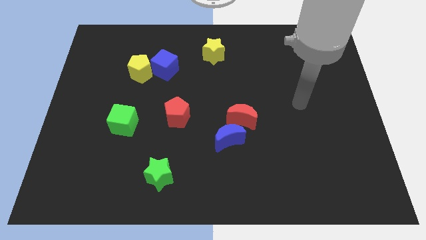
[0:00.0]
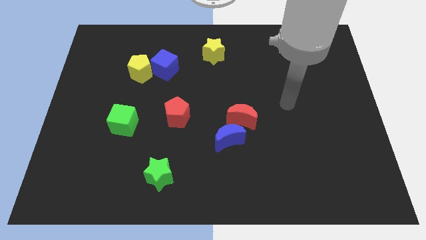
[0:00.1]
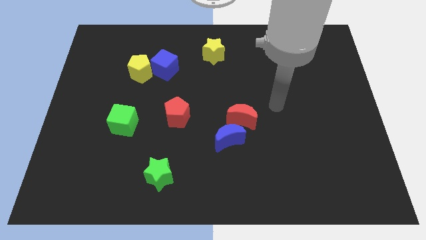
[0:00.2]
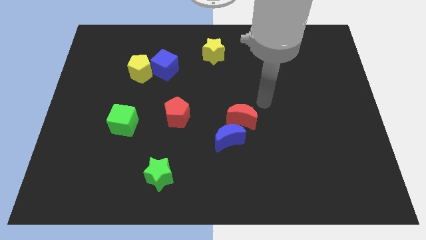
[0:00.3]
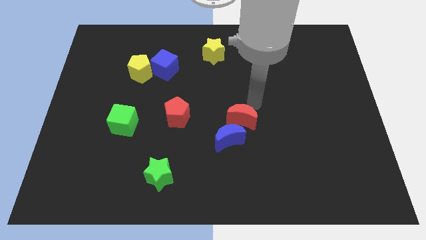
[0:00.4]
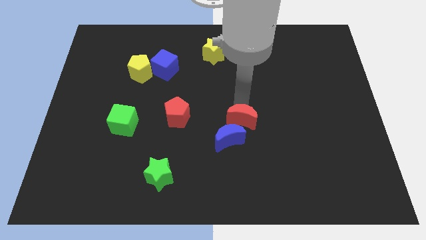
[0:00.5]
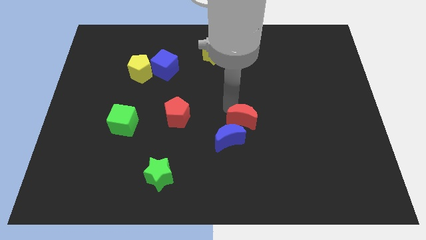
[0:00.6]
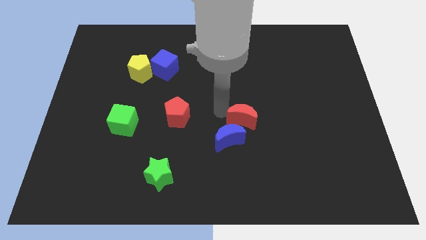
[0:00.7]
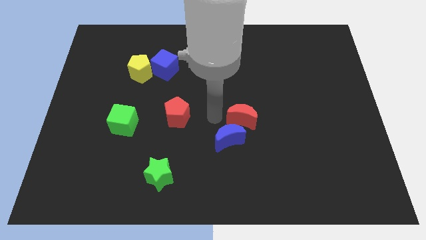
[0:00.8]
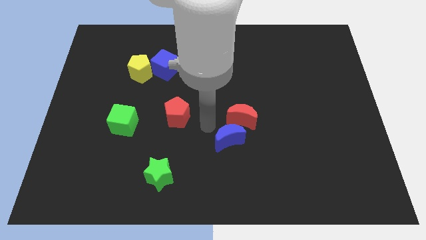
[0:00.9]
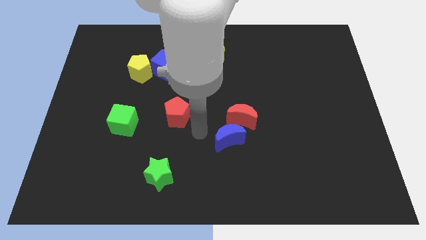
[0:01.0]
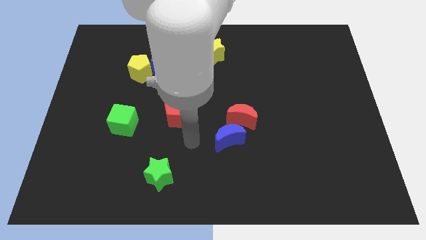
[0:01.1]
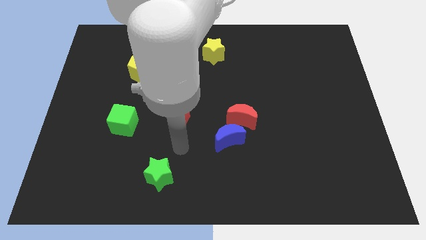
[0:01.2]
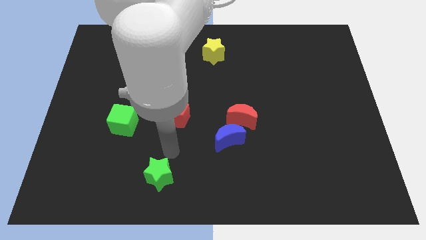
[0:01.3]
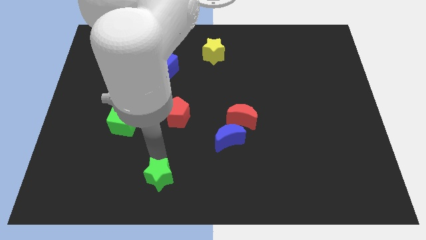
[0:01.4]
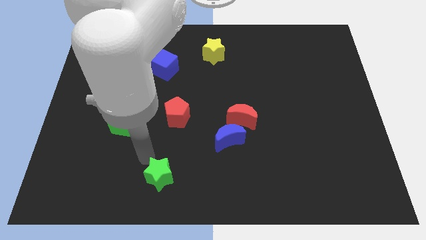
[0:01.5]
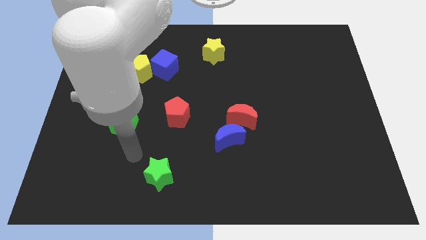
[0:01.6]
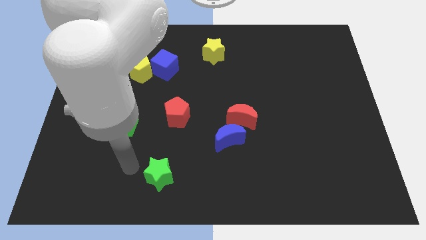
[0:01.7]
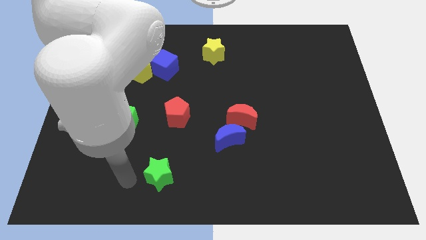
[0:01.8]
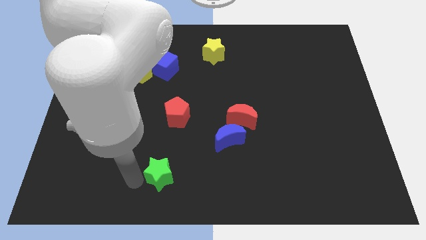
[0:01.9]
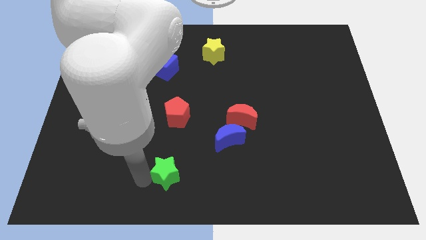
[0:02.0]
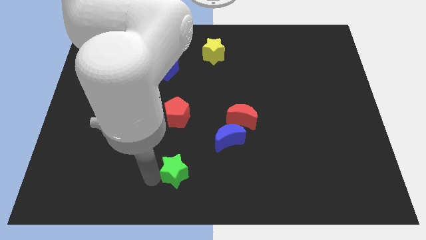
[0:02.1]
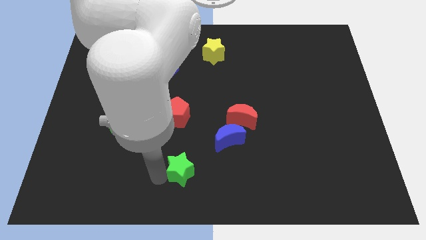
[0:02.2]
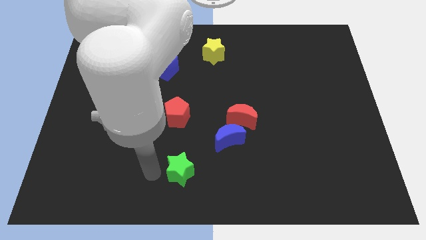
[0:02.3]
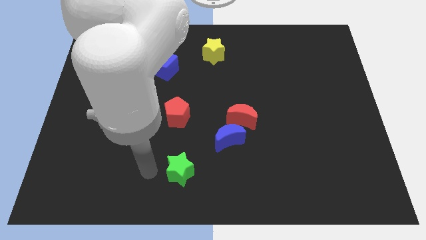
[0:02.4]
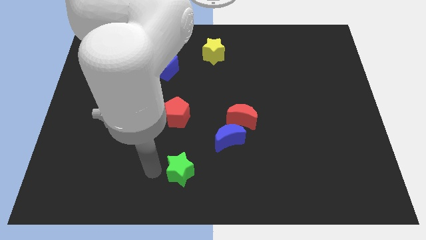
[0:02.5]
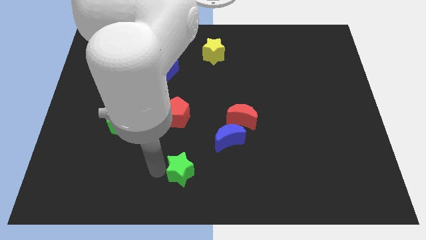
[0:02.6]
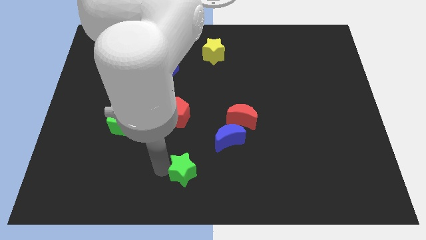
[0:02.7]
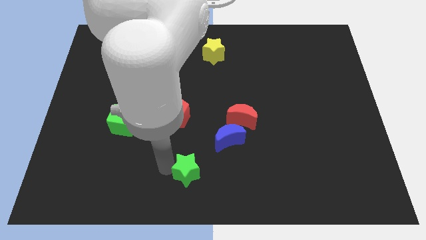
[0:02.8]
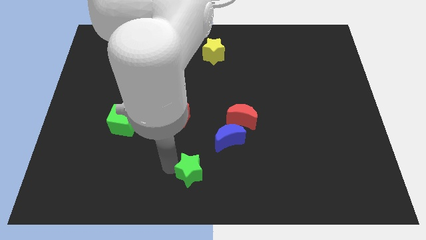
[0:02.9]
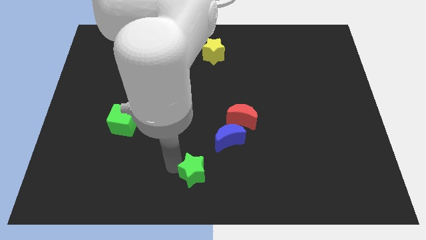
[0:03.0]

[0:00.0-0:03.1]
slightly move the green star right

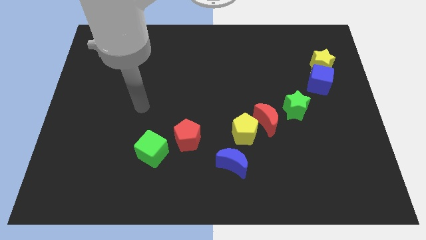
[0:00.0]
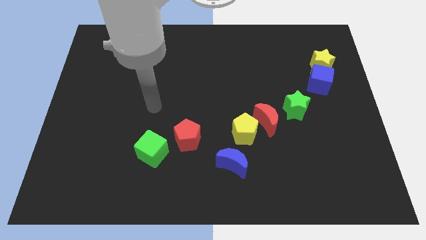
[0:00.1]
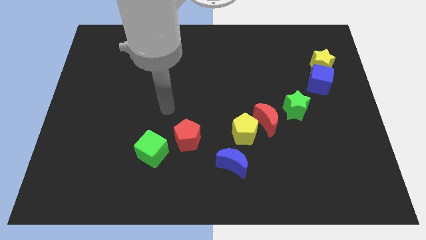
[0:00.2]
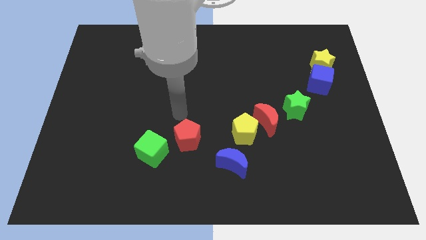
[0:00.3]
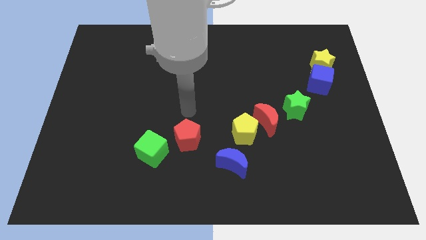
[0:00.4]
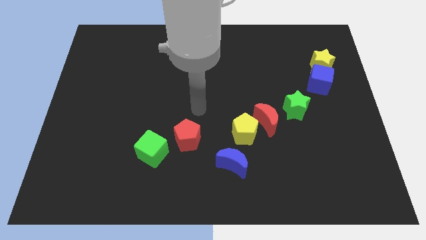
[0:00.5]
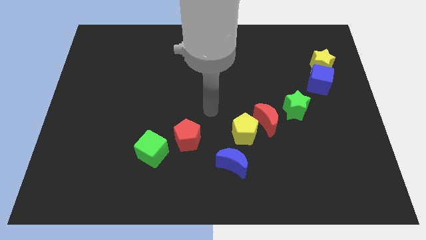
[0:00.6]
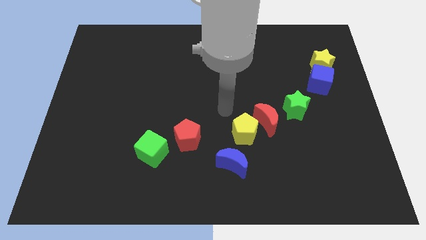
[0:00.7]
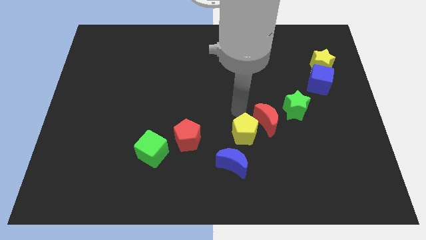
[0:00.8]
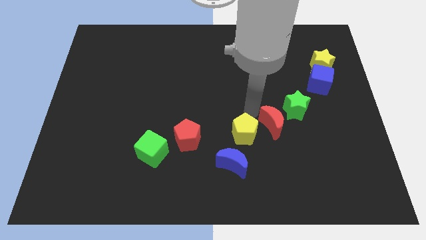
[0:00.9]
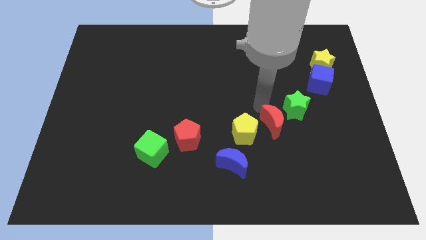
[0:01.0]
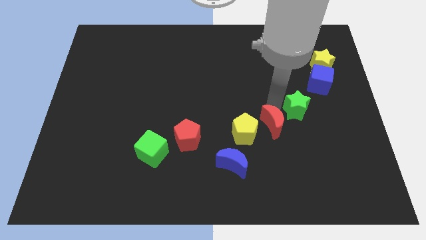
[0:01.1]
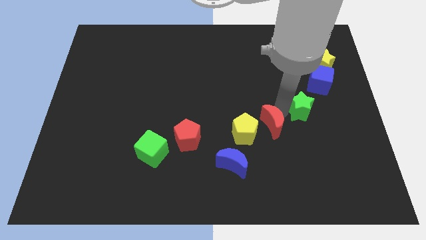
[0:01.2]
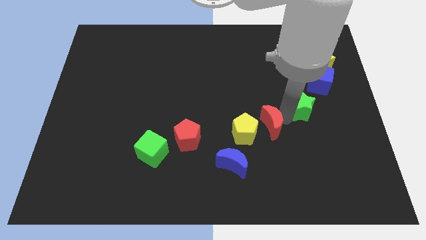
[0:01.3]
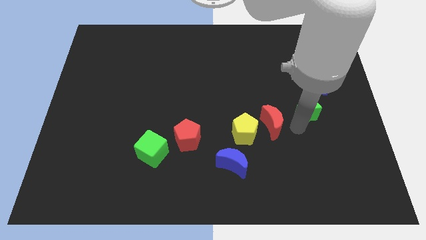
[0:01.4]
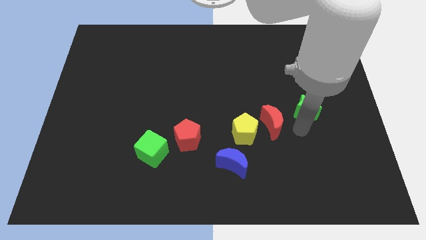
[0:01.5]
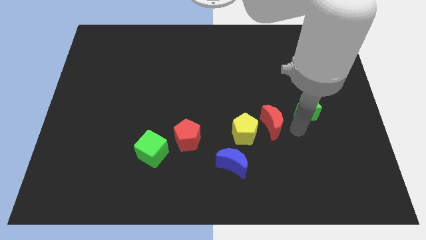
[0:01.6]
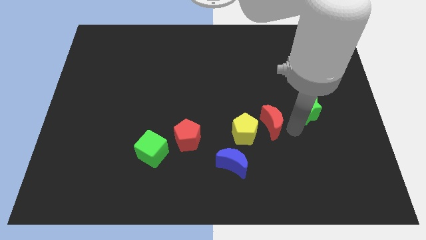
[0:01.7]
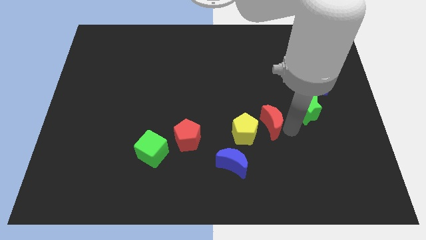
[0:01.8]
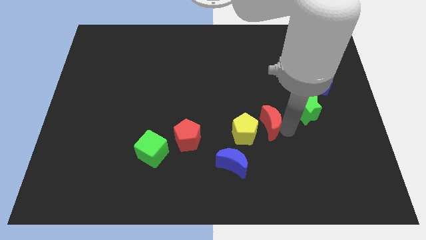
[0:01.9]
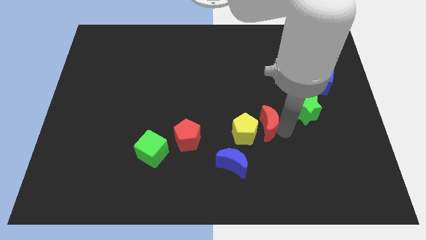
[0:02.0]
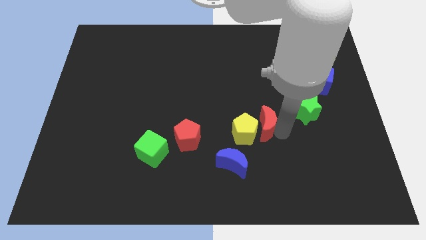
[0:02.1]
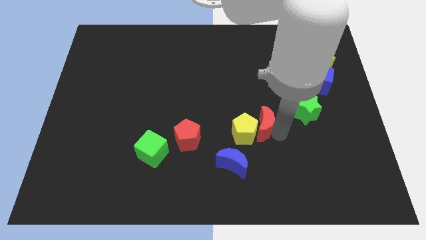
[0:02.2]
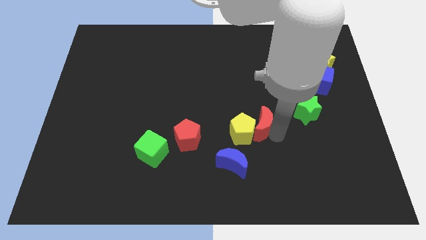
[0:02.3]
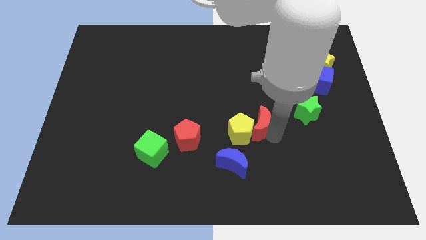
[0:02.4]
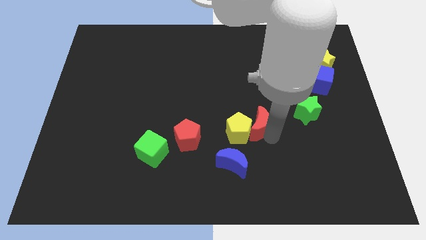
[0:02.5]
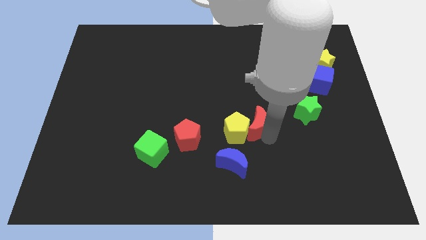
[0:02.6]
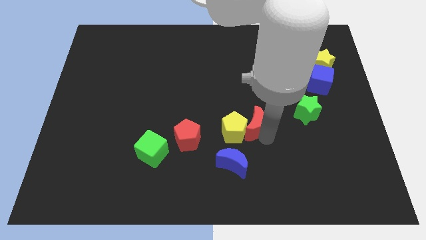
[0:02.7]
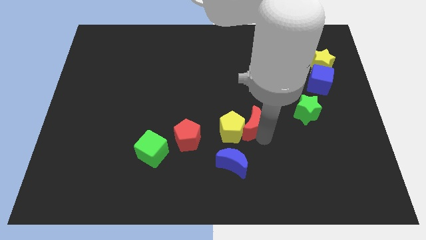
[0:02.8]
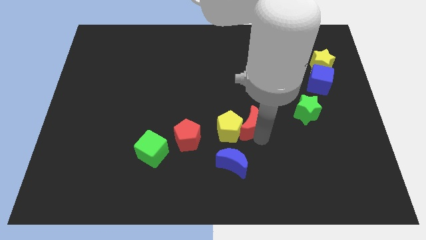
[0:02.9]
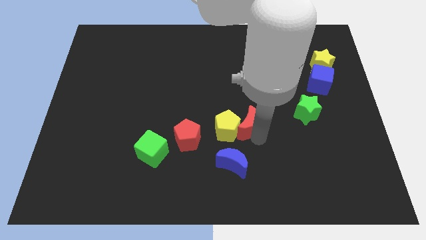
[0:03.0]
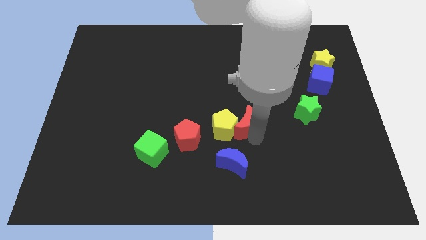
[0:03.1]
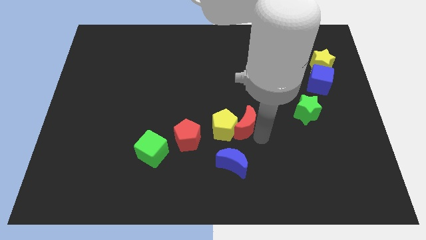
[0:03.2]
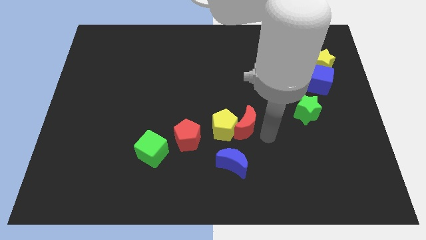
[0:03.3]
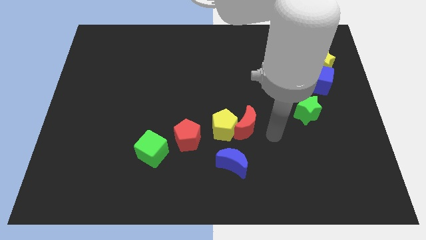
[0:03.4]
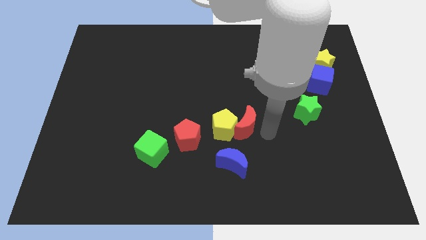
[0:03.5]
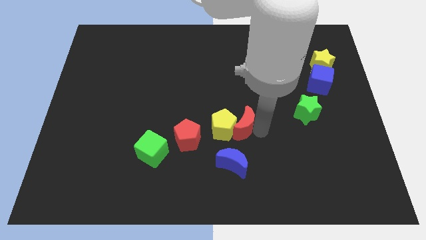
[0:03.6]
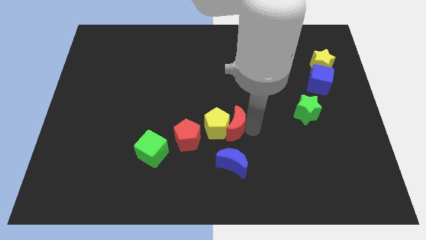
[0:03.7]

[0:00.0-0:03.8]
push the red moon to the left a bit

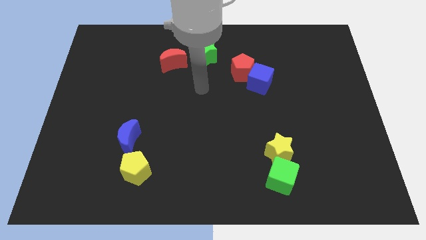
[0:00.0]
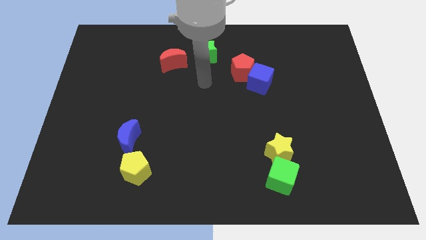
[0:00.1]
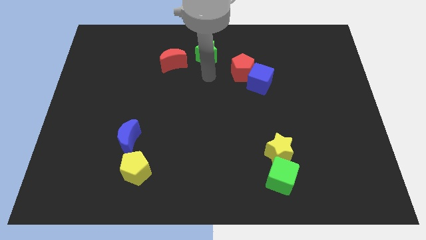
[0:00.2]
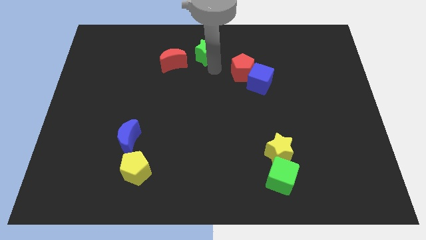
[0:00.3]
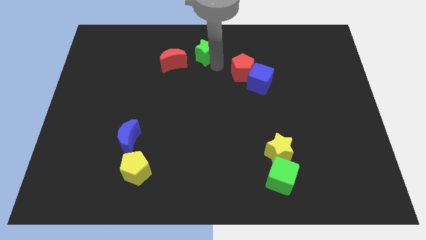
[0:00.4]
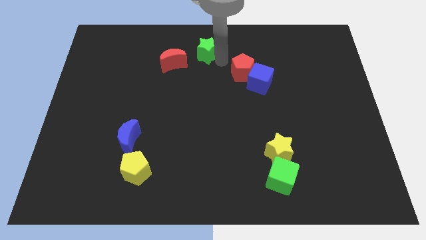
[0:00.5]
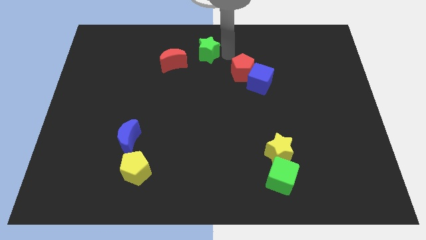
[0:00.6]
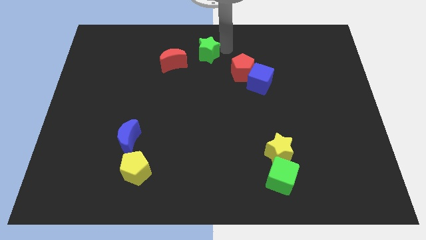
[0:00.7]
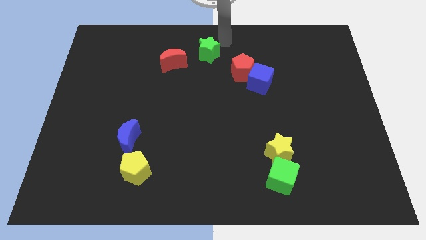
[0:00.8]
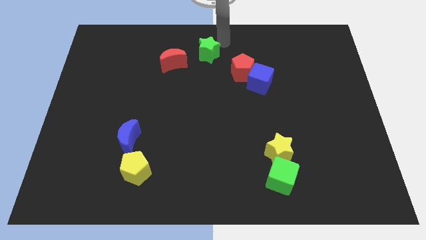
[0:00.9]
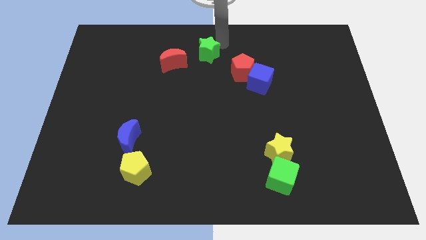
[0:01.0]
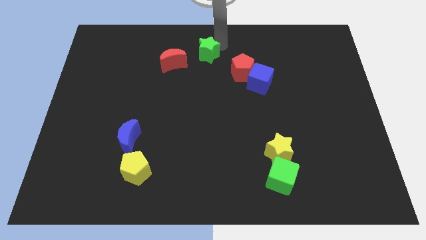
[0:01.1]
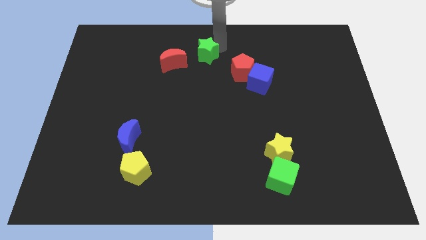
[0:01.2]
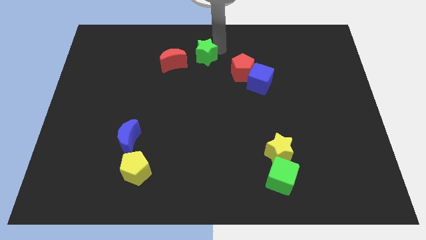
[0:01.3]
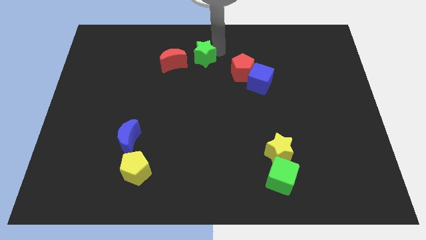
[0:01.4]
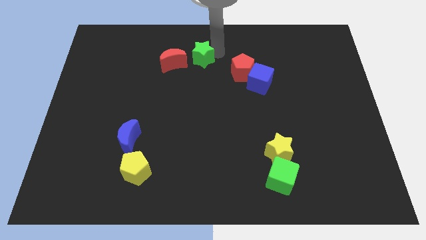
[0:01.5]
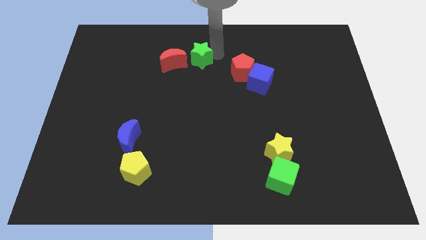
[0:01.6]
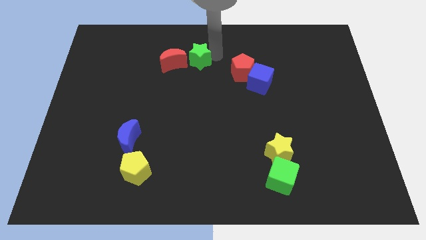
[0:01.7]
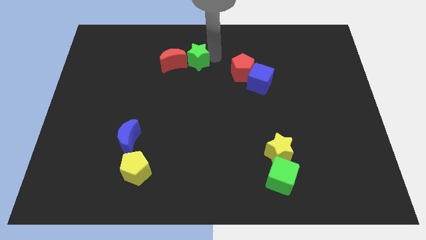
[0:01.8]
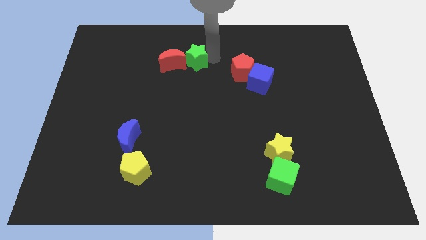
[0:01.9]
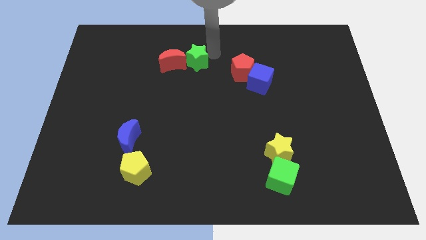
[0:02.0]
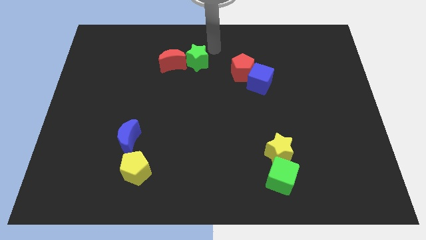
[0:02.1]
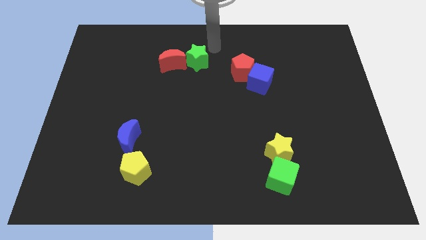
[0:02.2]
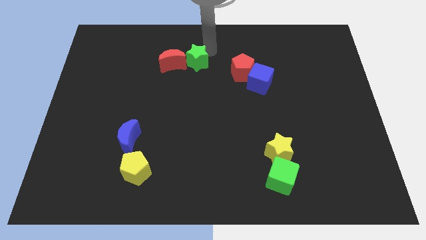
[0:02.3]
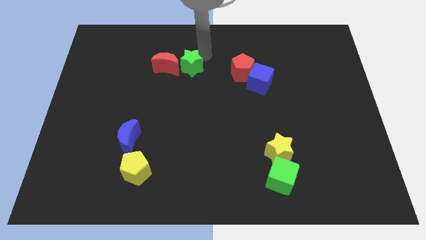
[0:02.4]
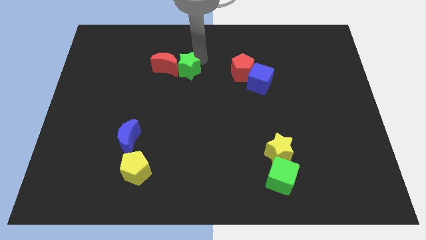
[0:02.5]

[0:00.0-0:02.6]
slightly move the green star downwards and left
